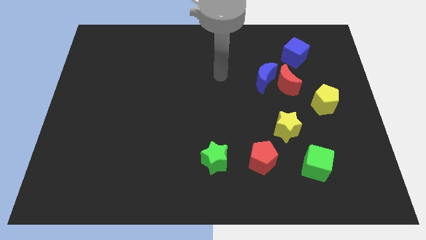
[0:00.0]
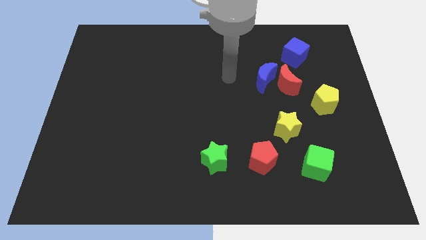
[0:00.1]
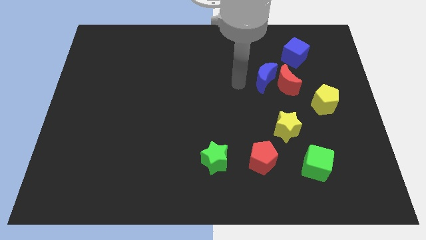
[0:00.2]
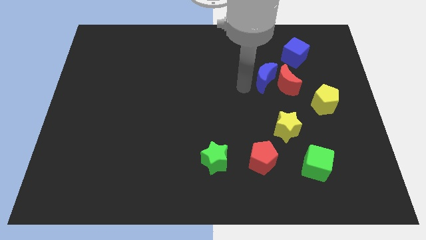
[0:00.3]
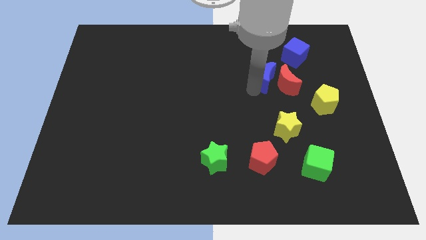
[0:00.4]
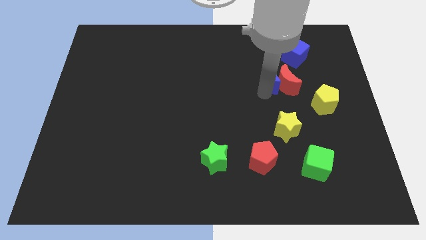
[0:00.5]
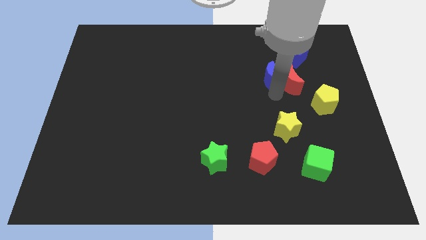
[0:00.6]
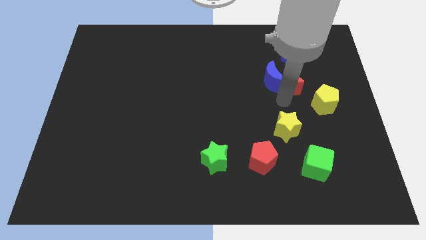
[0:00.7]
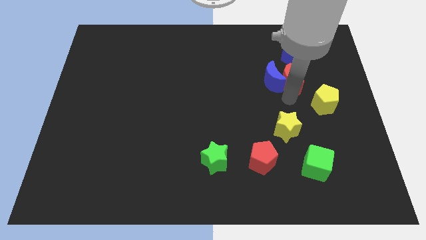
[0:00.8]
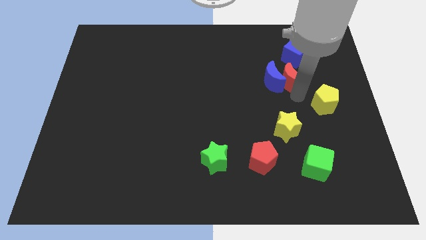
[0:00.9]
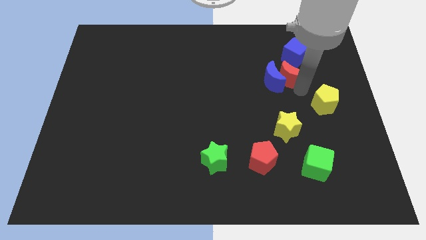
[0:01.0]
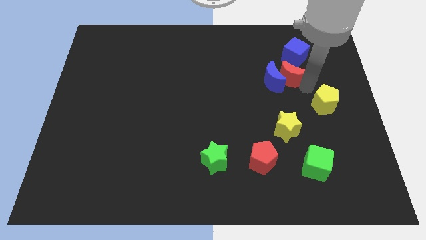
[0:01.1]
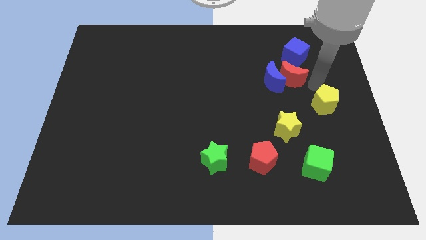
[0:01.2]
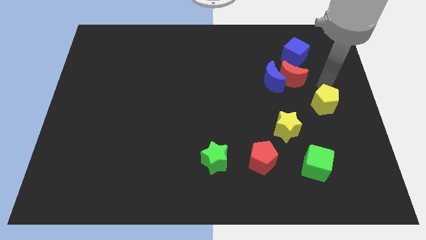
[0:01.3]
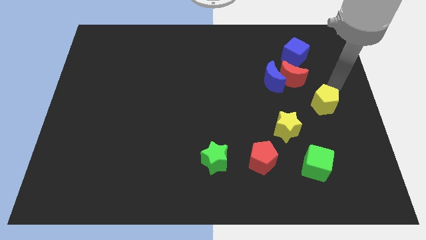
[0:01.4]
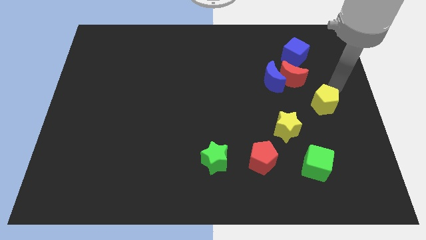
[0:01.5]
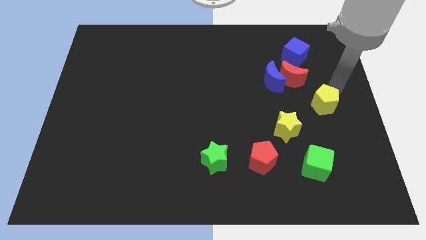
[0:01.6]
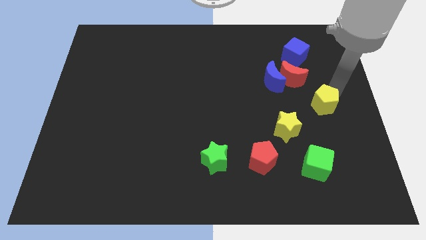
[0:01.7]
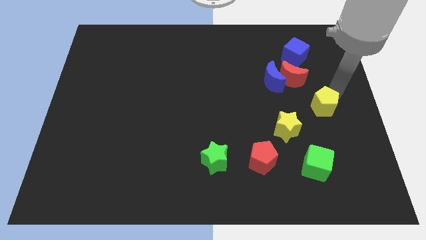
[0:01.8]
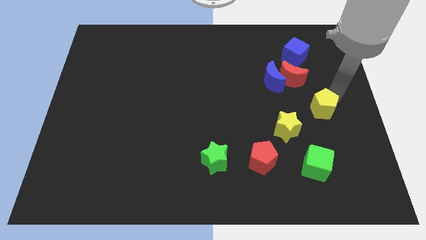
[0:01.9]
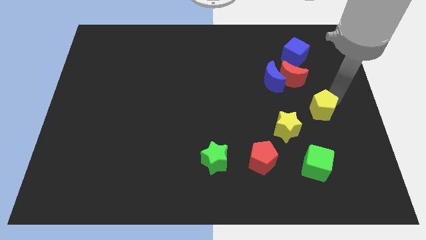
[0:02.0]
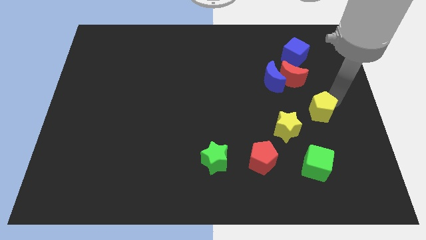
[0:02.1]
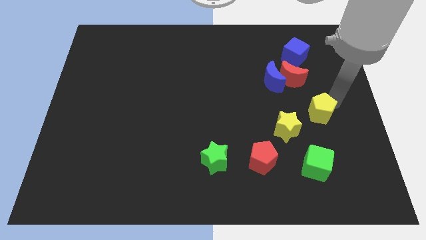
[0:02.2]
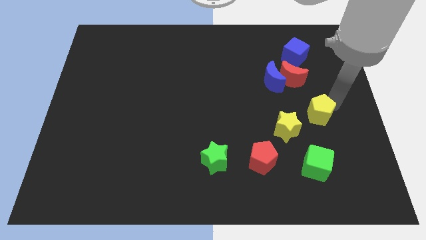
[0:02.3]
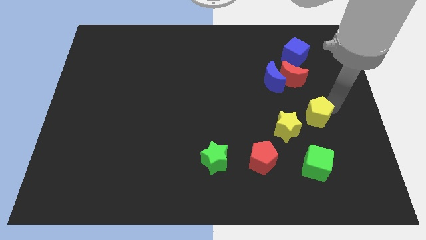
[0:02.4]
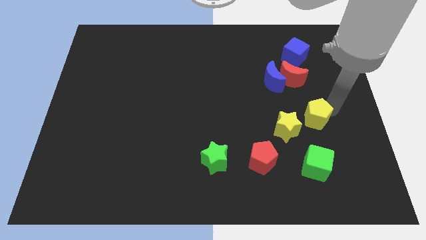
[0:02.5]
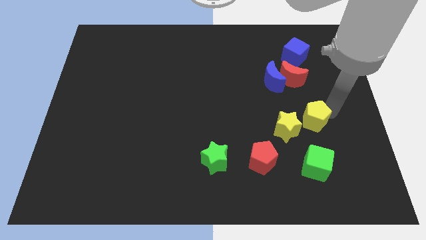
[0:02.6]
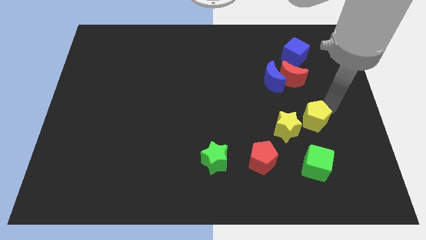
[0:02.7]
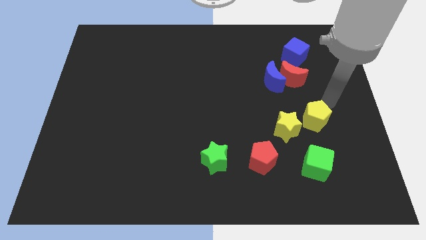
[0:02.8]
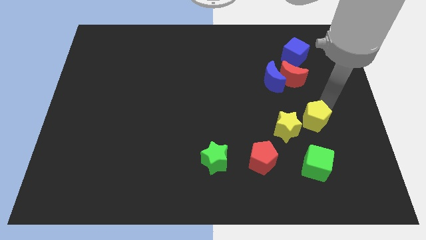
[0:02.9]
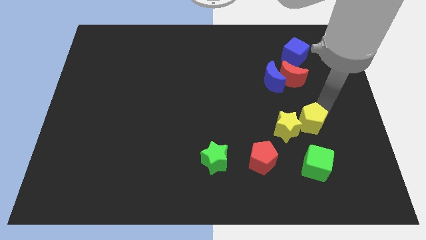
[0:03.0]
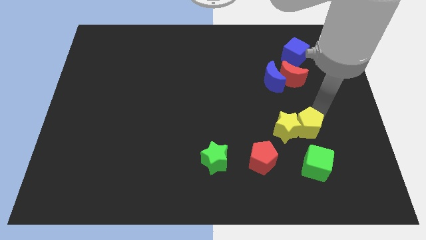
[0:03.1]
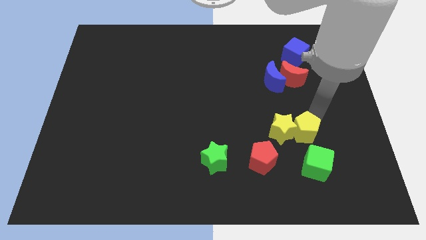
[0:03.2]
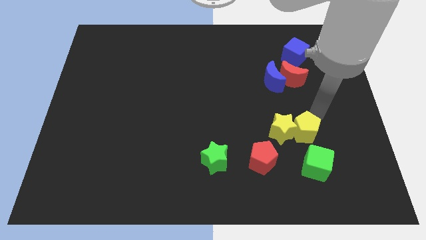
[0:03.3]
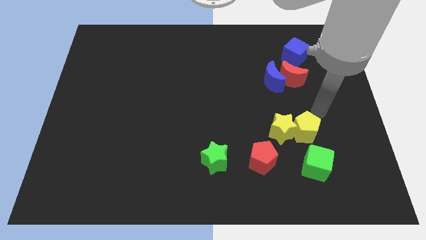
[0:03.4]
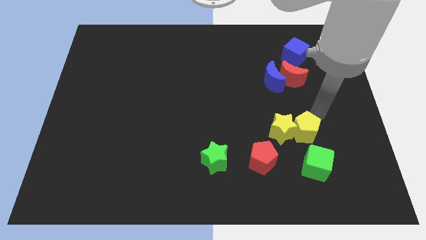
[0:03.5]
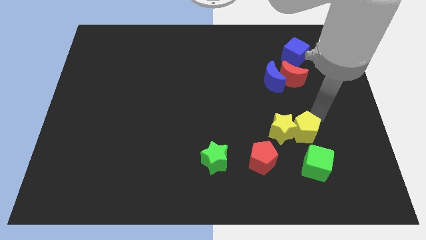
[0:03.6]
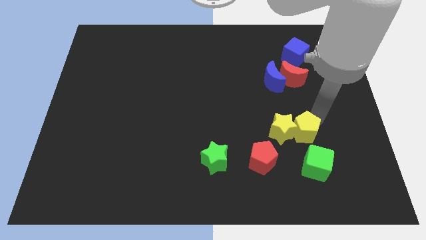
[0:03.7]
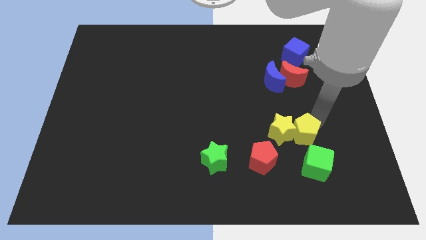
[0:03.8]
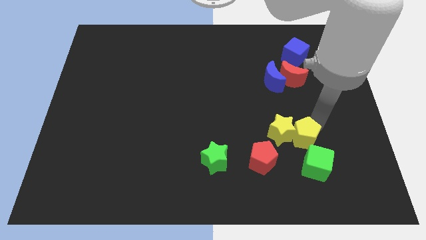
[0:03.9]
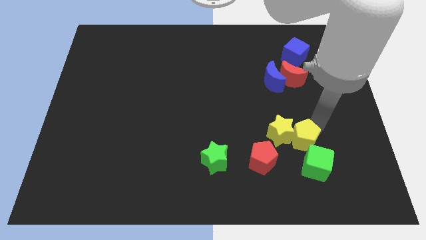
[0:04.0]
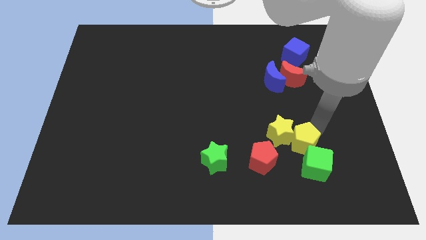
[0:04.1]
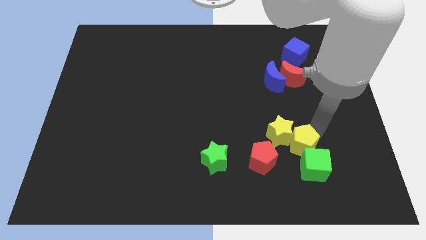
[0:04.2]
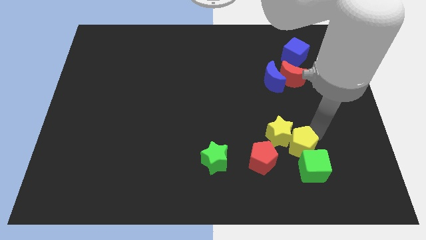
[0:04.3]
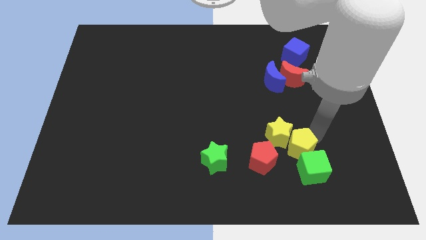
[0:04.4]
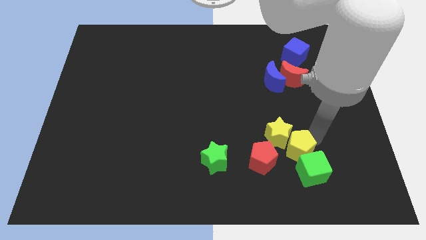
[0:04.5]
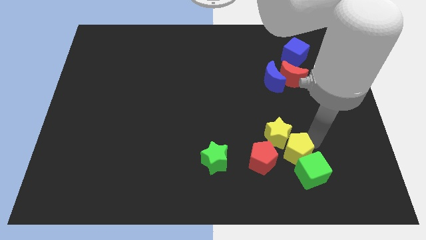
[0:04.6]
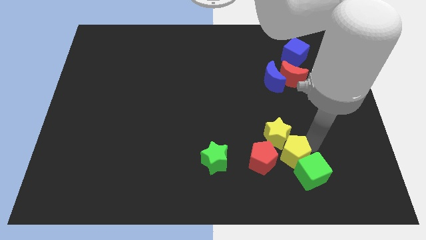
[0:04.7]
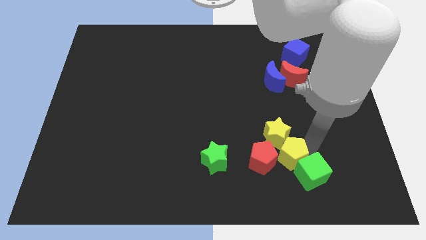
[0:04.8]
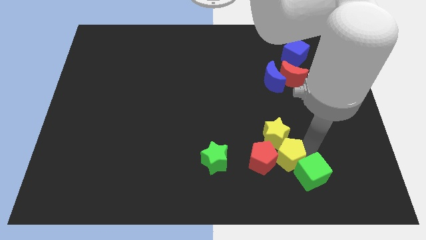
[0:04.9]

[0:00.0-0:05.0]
push the yellow pentagon close to the red pentagon

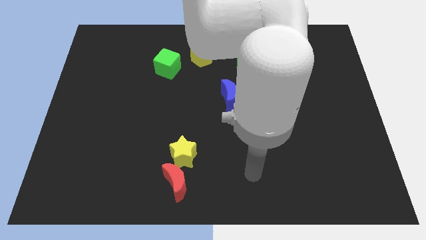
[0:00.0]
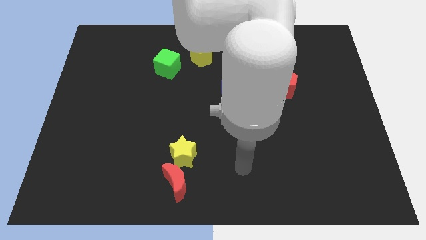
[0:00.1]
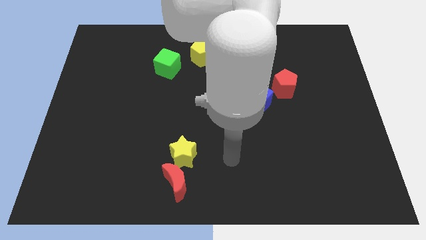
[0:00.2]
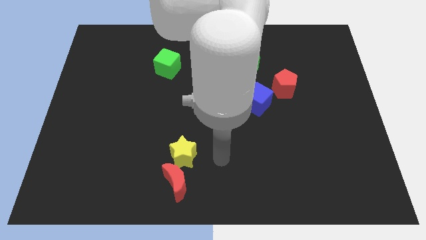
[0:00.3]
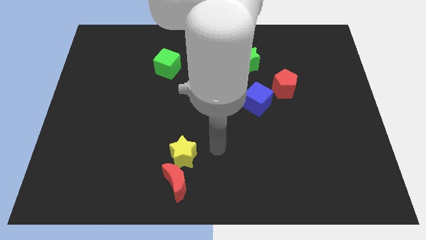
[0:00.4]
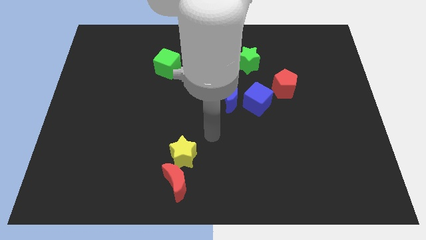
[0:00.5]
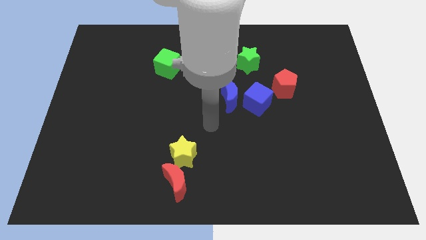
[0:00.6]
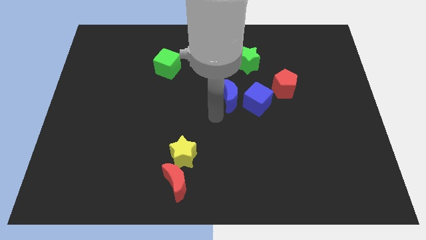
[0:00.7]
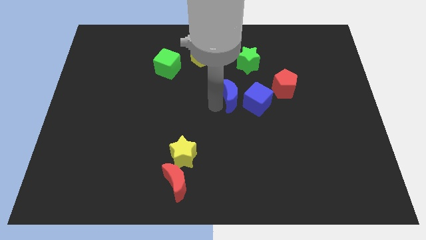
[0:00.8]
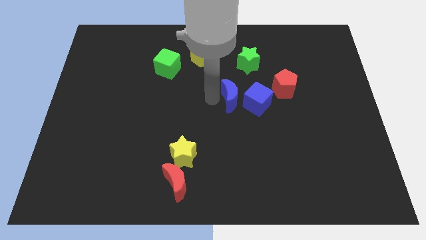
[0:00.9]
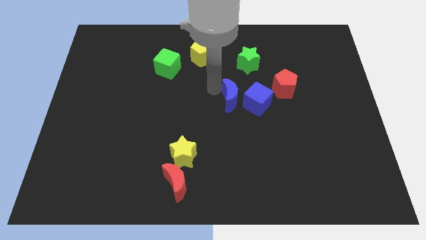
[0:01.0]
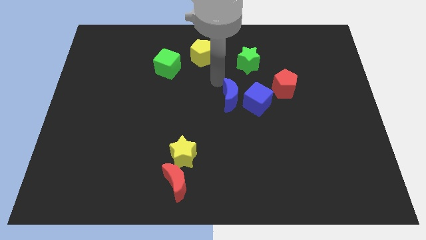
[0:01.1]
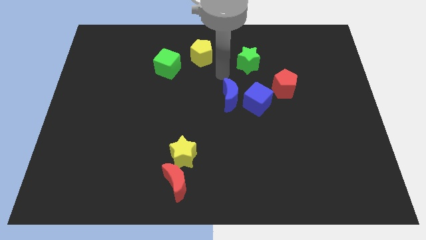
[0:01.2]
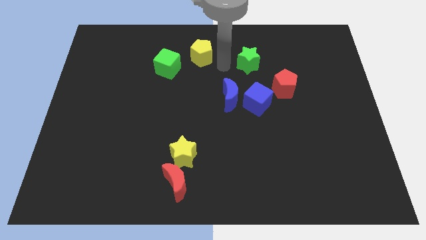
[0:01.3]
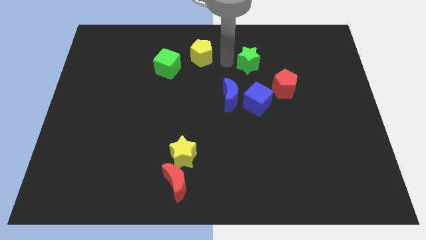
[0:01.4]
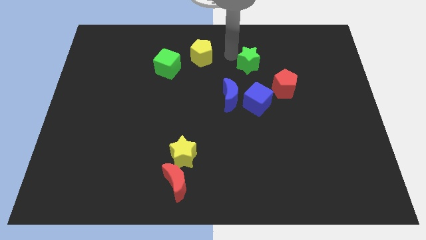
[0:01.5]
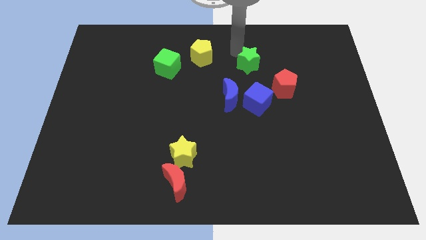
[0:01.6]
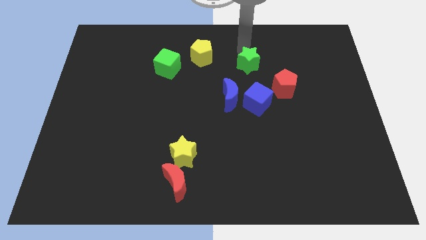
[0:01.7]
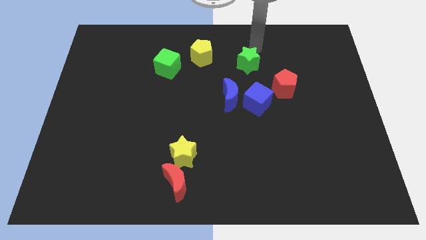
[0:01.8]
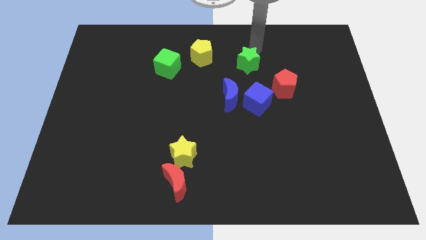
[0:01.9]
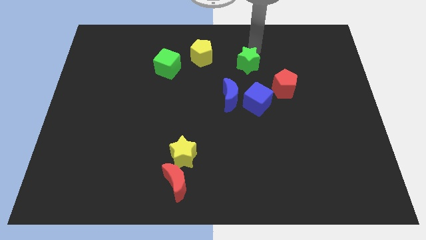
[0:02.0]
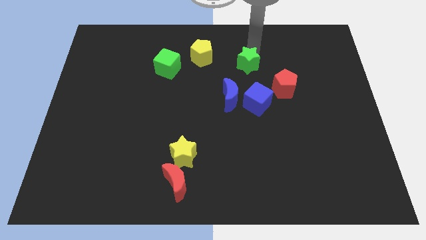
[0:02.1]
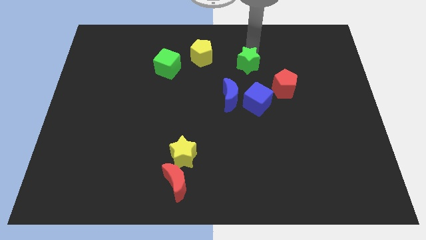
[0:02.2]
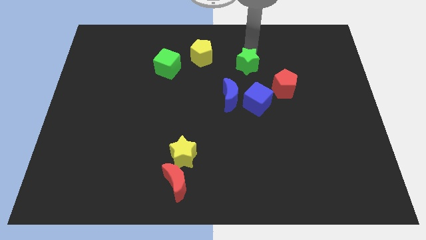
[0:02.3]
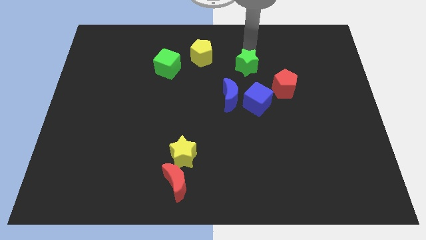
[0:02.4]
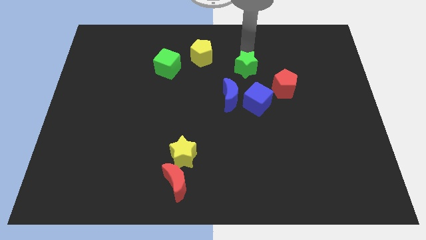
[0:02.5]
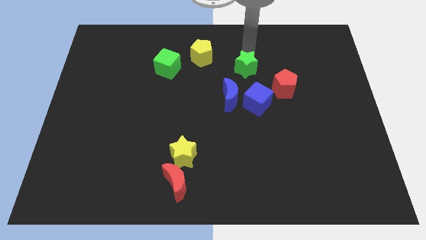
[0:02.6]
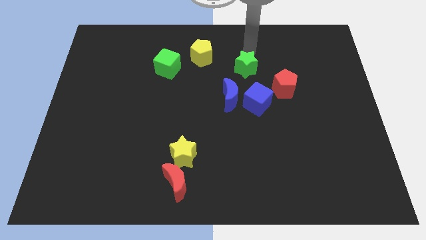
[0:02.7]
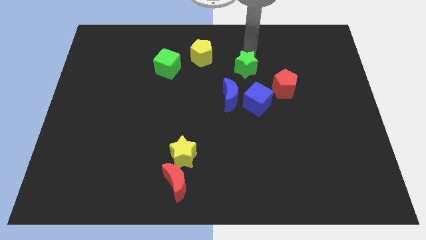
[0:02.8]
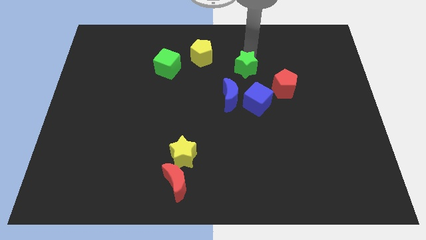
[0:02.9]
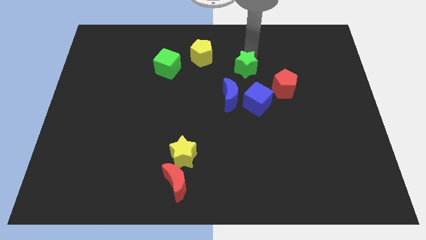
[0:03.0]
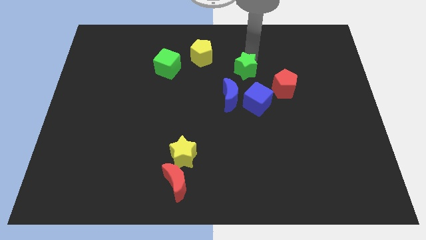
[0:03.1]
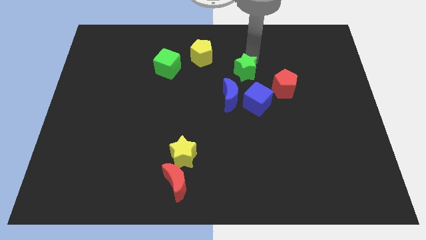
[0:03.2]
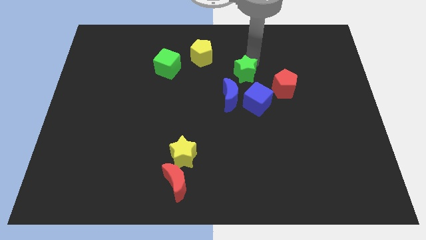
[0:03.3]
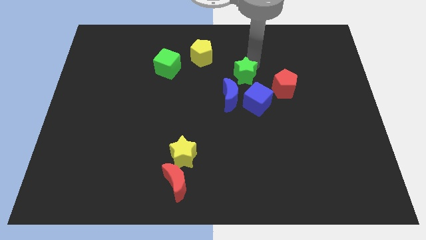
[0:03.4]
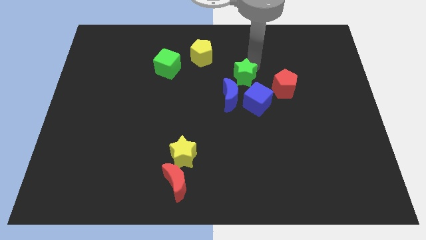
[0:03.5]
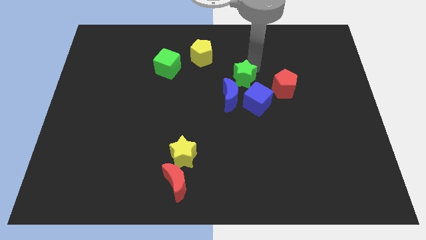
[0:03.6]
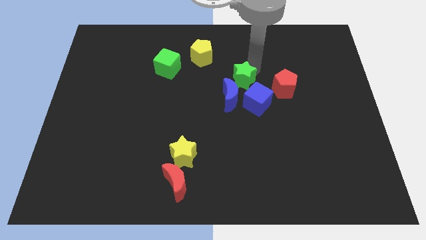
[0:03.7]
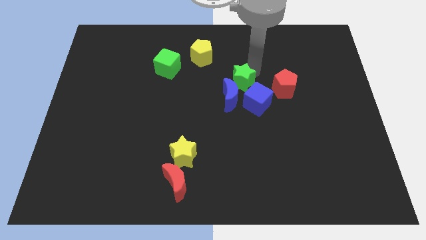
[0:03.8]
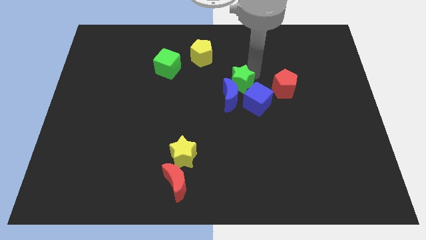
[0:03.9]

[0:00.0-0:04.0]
put the green star towards the blue moon
